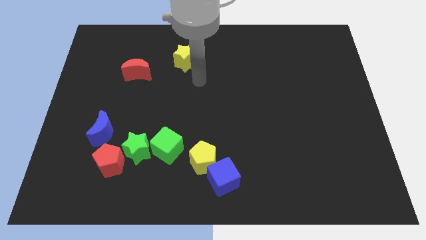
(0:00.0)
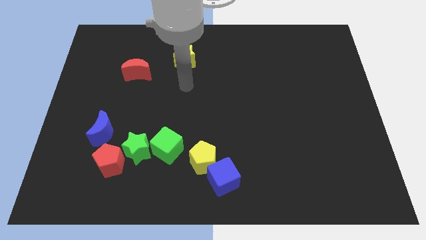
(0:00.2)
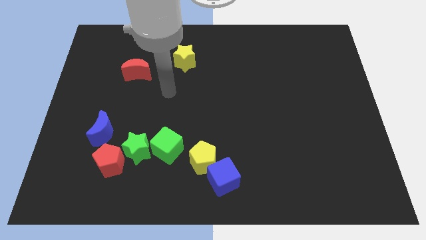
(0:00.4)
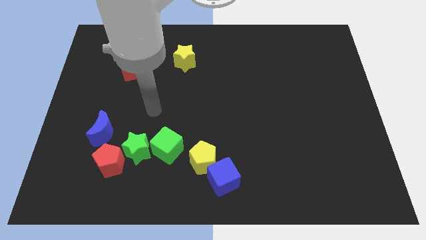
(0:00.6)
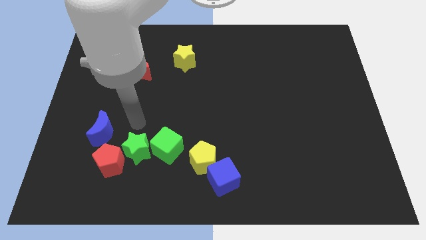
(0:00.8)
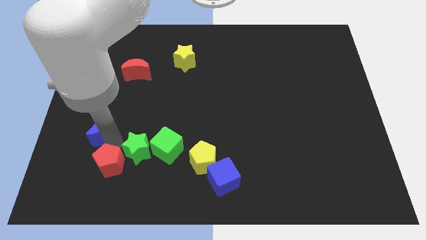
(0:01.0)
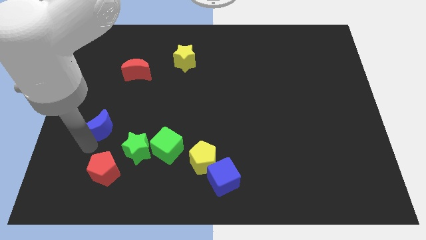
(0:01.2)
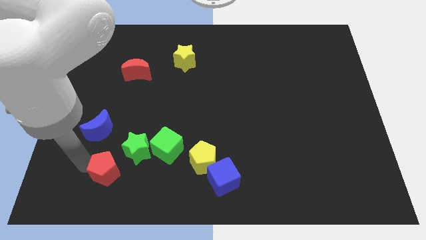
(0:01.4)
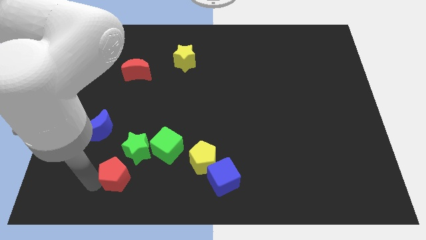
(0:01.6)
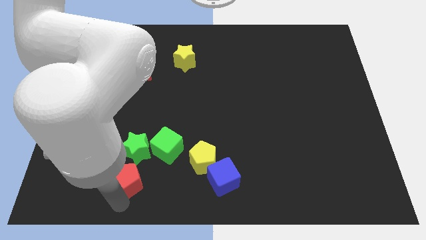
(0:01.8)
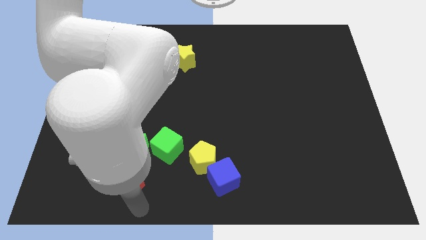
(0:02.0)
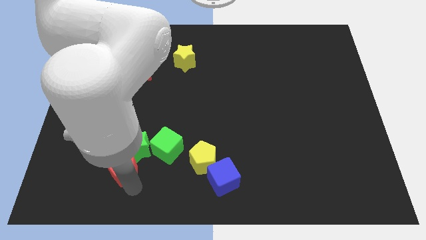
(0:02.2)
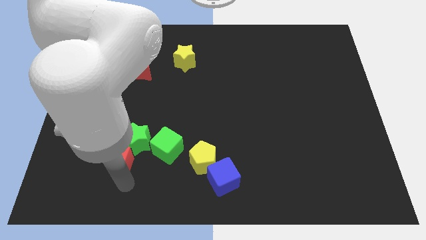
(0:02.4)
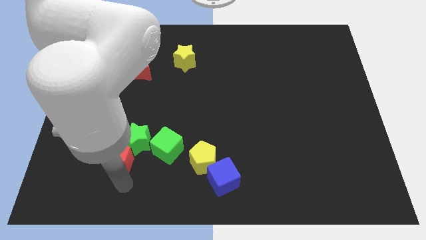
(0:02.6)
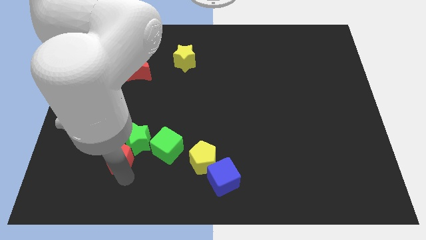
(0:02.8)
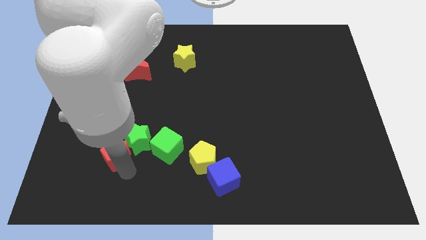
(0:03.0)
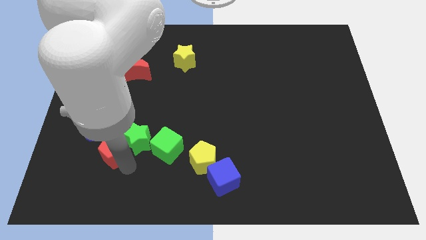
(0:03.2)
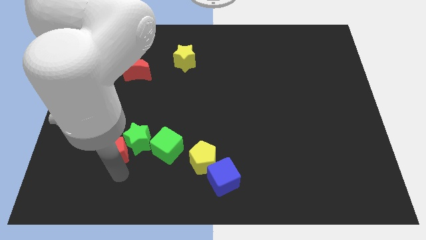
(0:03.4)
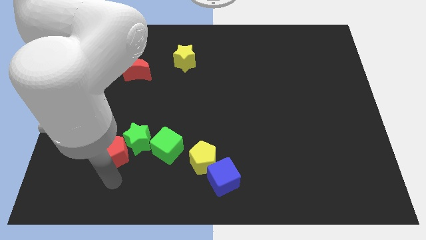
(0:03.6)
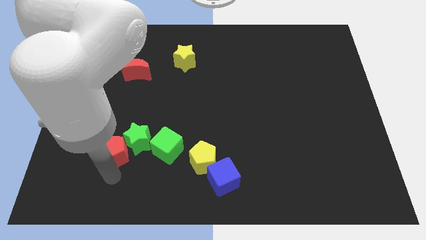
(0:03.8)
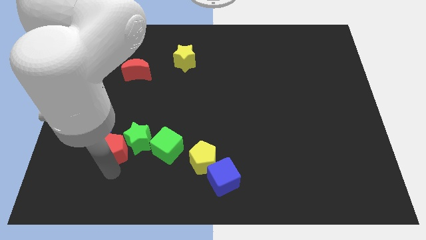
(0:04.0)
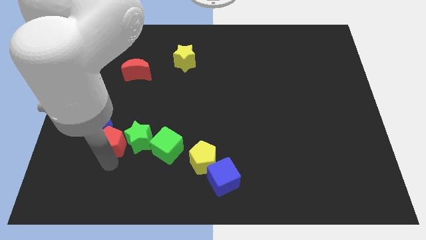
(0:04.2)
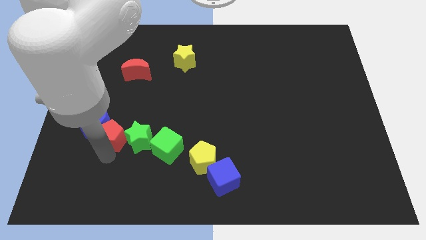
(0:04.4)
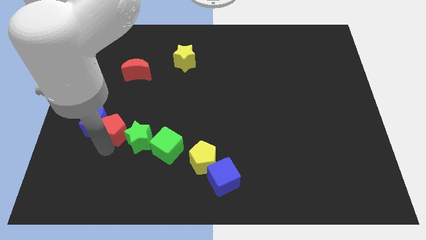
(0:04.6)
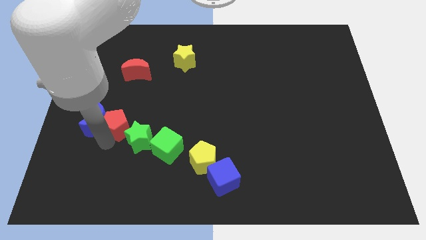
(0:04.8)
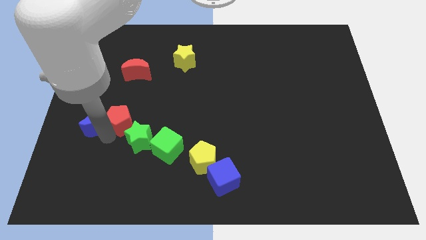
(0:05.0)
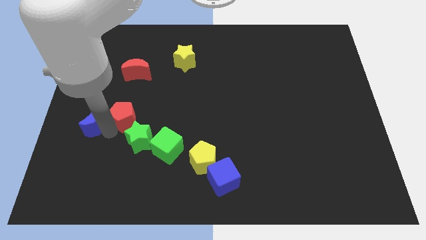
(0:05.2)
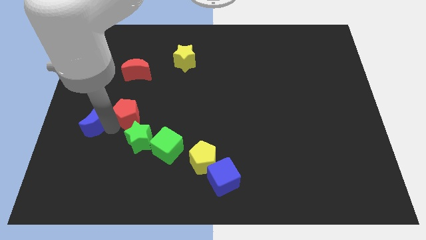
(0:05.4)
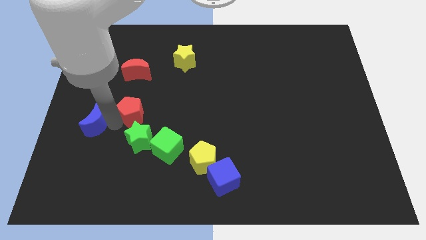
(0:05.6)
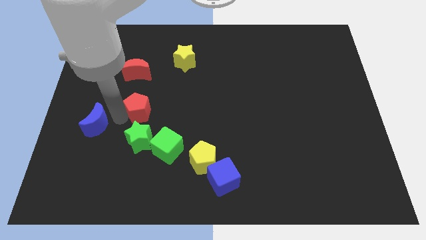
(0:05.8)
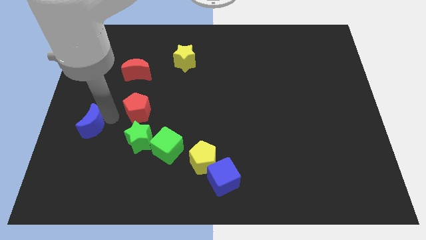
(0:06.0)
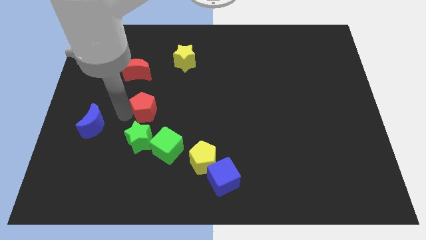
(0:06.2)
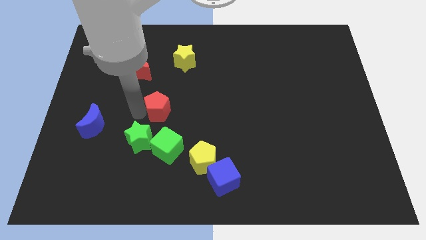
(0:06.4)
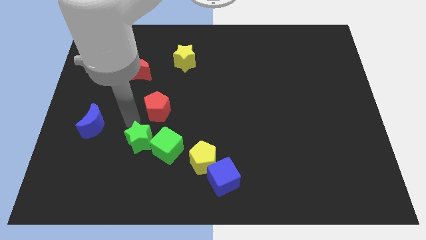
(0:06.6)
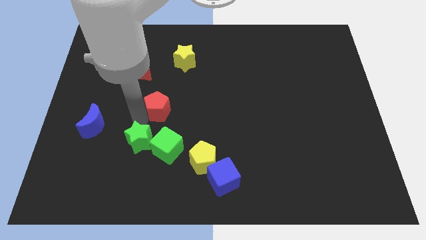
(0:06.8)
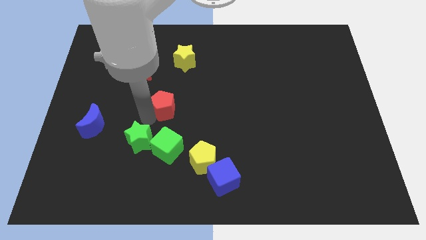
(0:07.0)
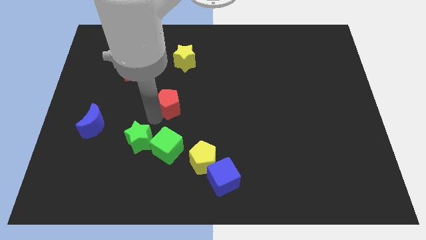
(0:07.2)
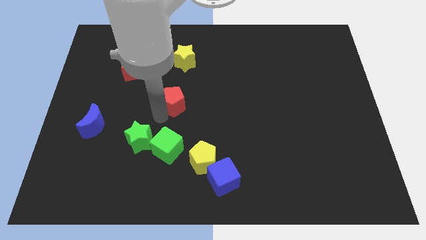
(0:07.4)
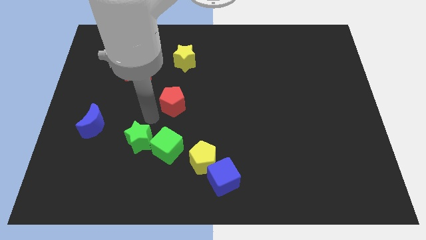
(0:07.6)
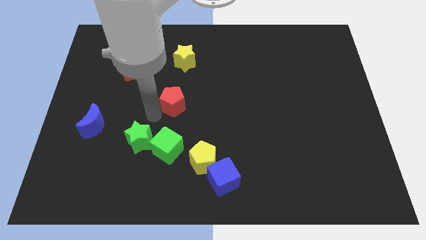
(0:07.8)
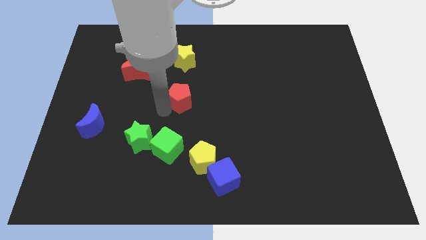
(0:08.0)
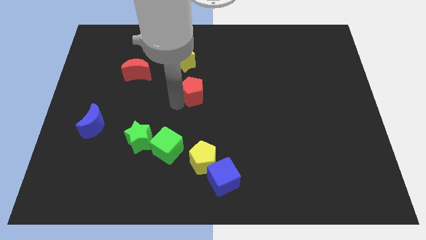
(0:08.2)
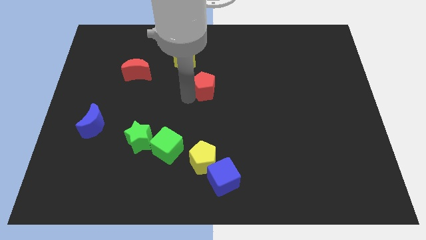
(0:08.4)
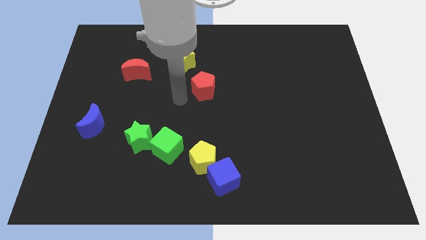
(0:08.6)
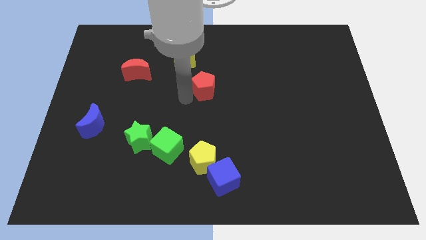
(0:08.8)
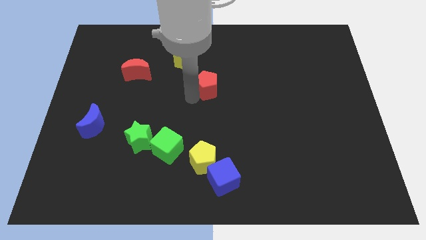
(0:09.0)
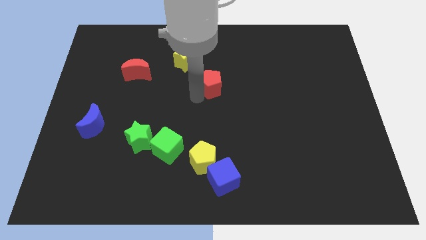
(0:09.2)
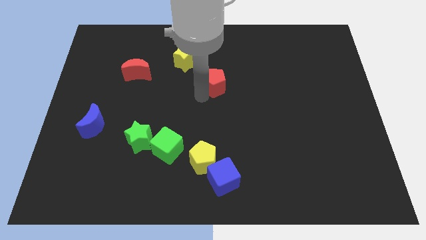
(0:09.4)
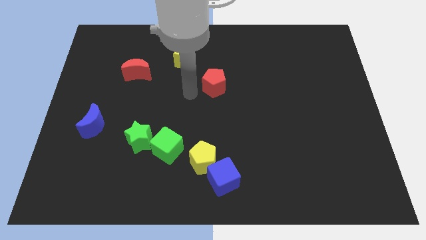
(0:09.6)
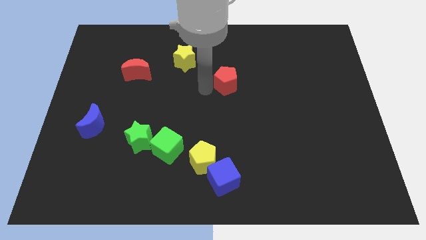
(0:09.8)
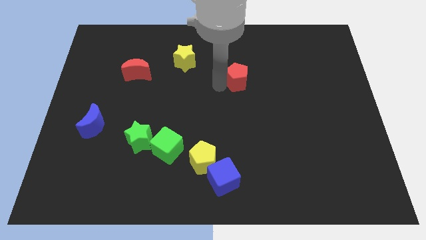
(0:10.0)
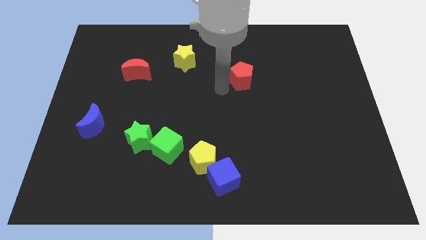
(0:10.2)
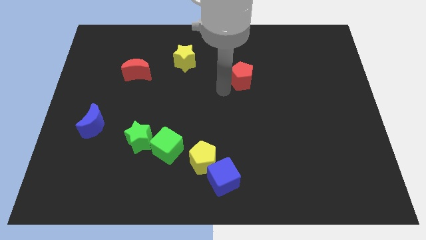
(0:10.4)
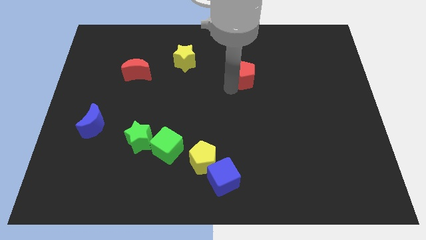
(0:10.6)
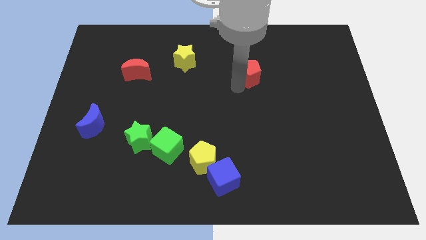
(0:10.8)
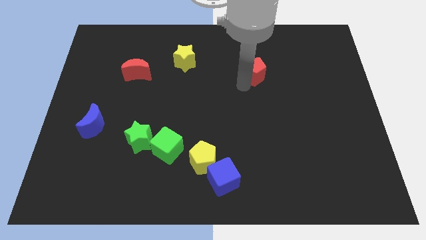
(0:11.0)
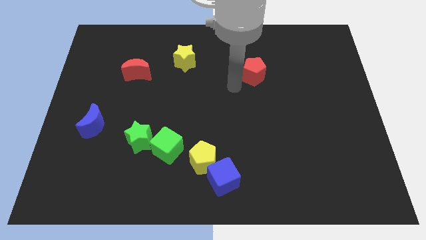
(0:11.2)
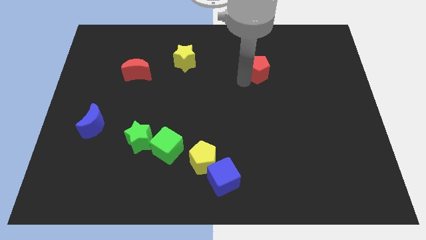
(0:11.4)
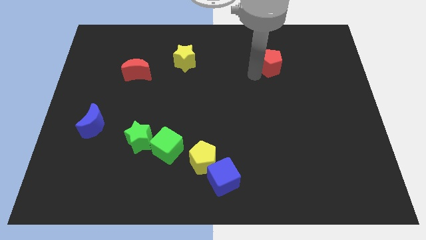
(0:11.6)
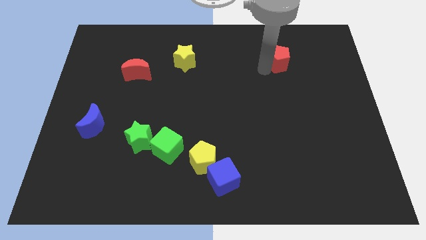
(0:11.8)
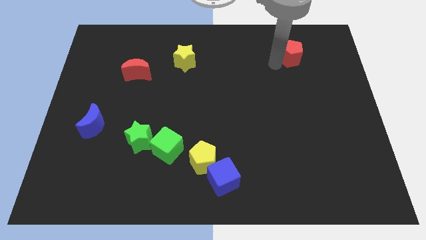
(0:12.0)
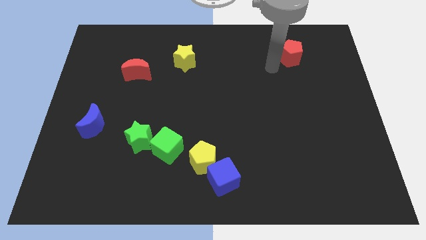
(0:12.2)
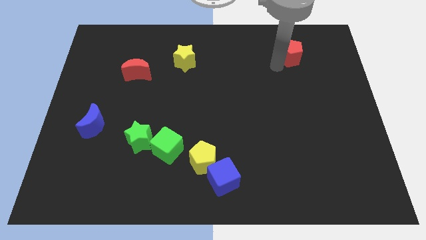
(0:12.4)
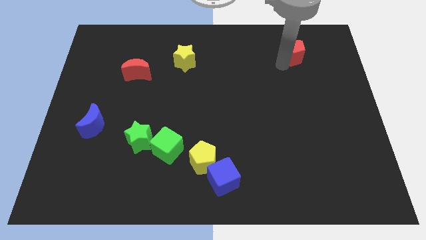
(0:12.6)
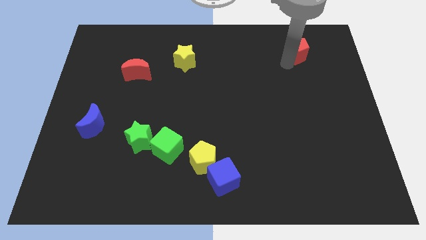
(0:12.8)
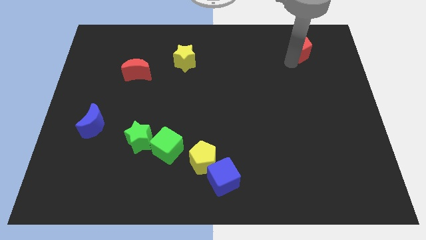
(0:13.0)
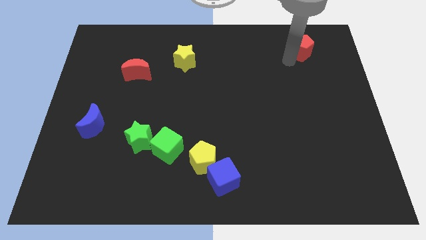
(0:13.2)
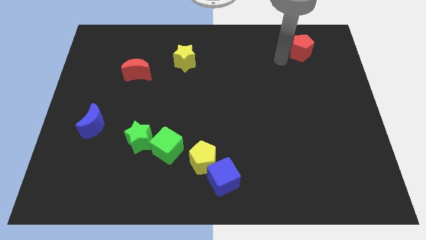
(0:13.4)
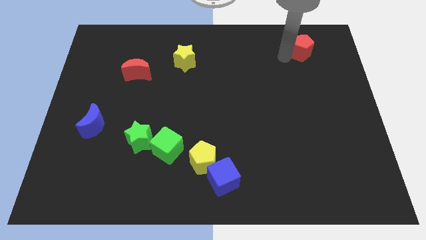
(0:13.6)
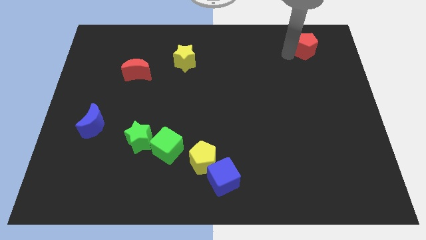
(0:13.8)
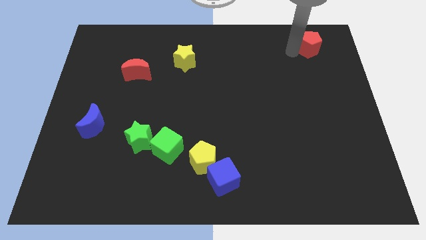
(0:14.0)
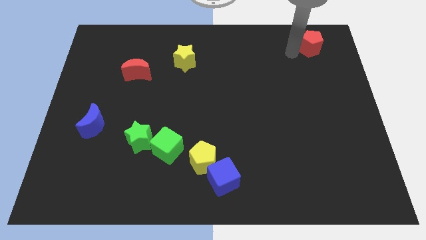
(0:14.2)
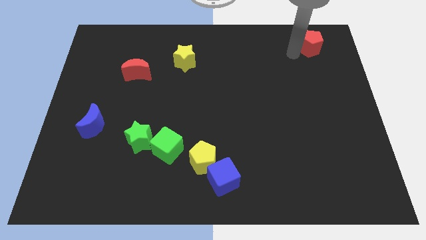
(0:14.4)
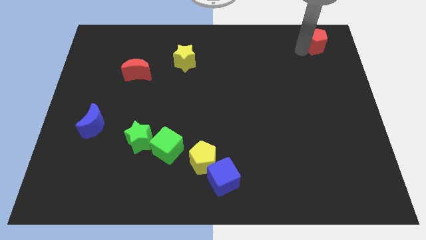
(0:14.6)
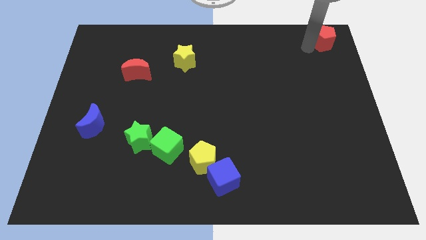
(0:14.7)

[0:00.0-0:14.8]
put the red pentagon to the top right corner

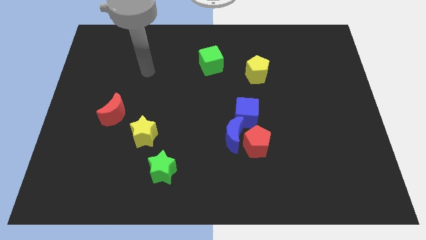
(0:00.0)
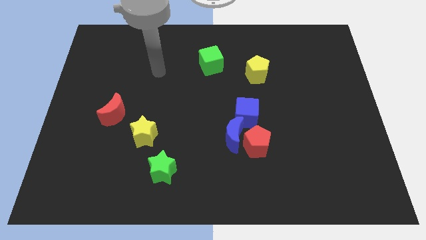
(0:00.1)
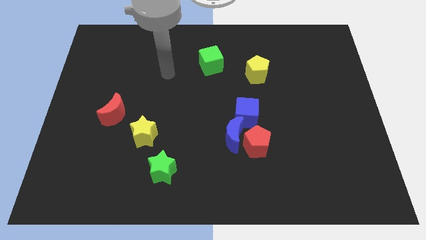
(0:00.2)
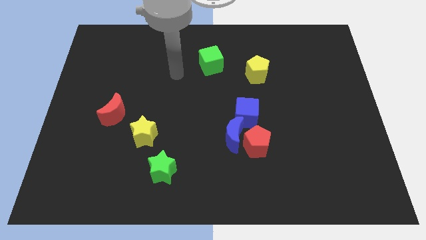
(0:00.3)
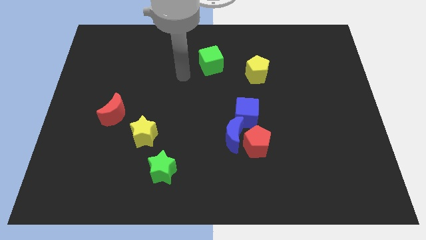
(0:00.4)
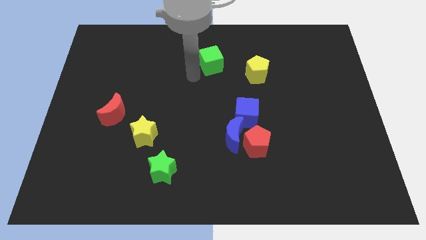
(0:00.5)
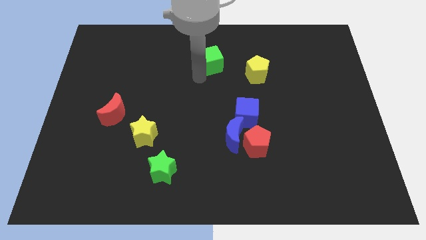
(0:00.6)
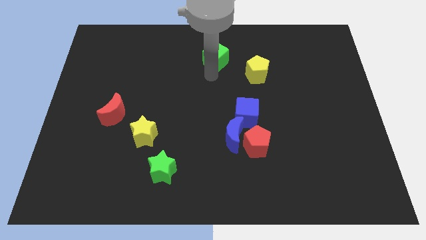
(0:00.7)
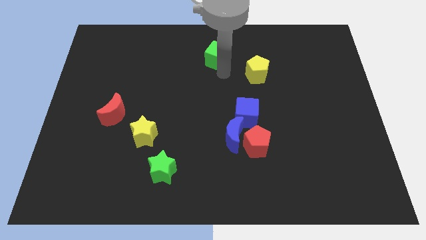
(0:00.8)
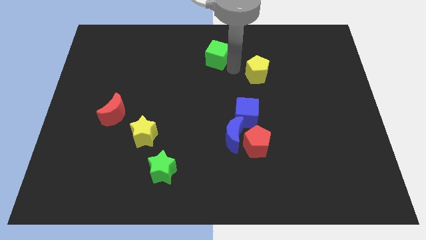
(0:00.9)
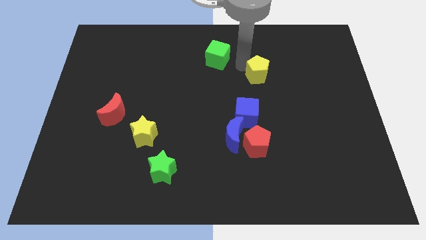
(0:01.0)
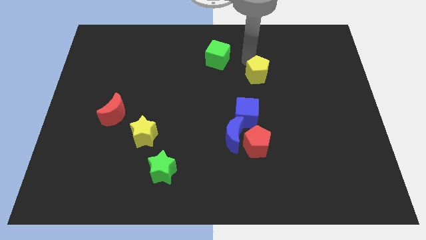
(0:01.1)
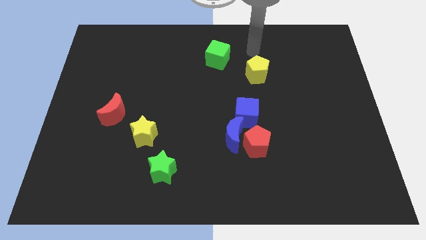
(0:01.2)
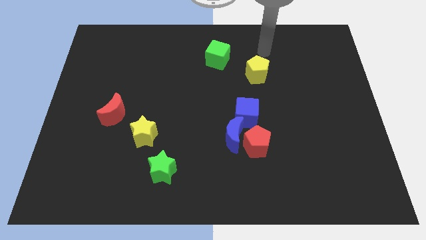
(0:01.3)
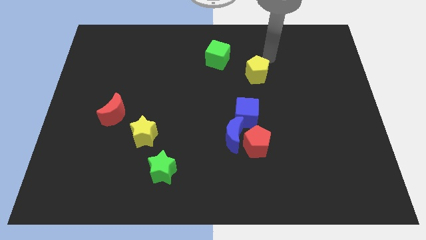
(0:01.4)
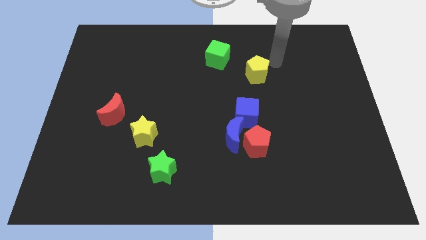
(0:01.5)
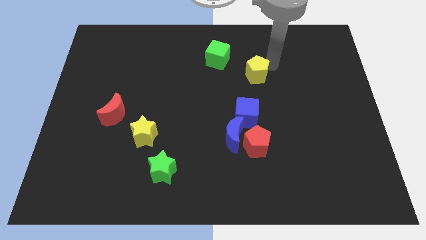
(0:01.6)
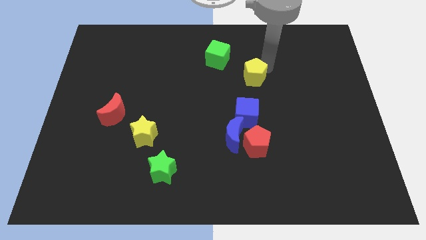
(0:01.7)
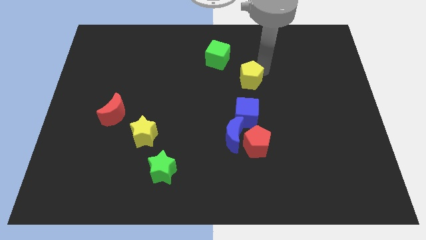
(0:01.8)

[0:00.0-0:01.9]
push the yellow pentagon to the center of the board
